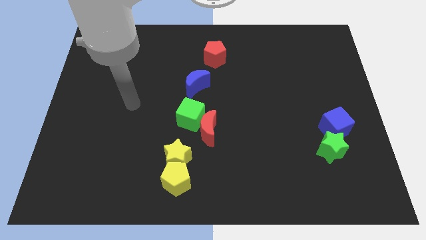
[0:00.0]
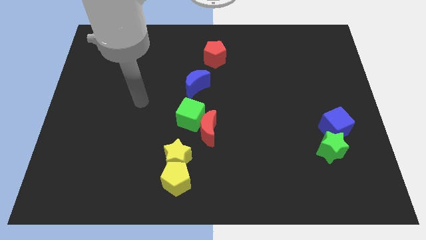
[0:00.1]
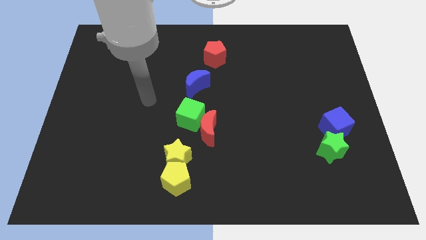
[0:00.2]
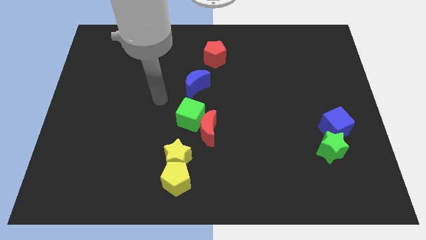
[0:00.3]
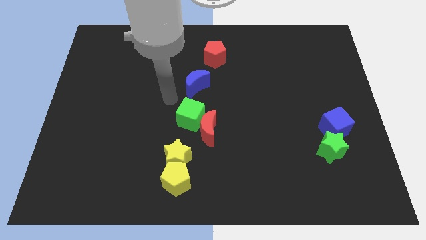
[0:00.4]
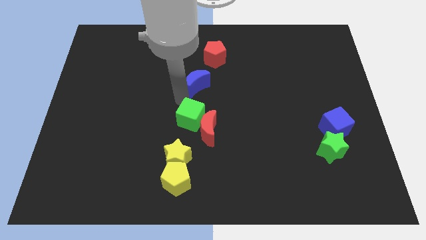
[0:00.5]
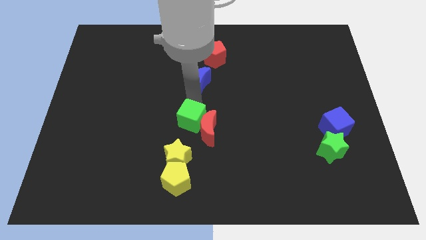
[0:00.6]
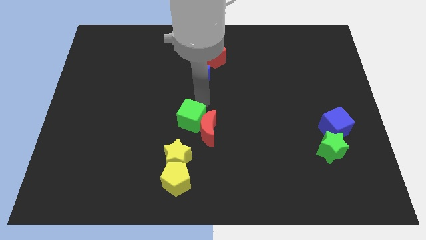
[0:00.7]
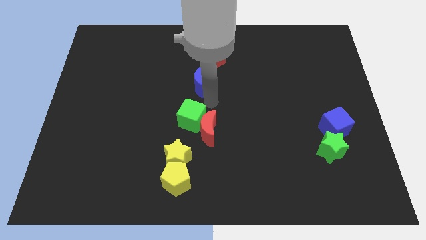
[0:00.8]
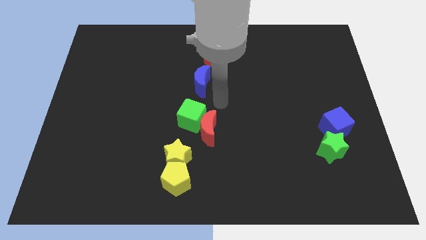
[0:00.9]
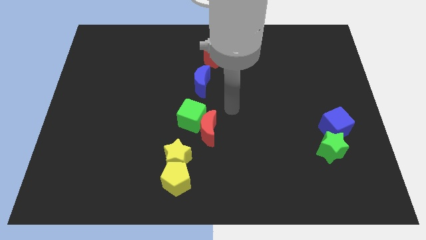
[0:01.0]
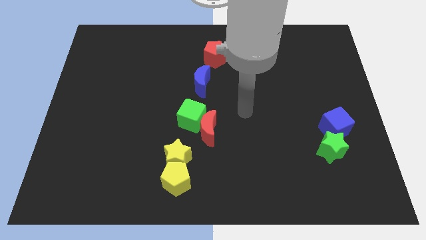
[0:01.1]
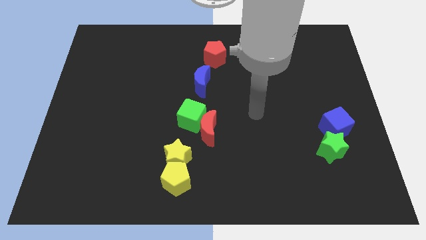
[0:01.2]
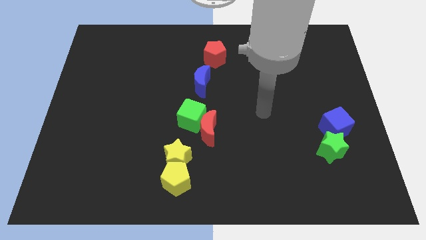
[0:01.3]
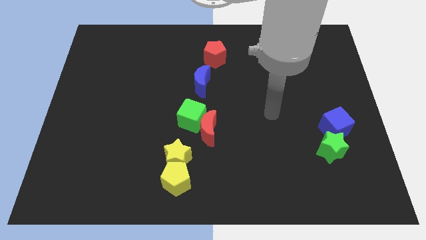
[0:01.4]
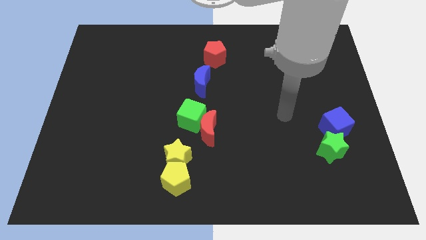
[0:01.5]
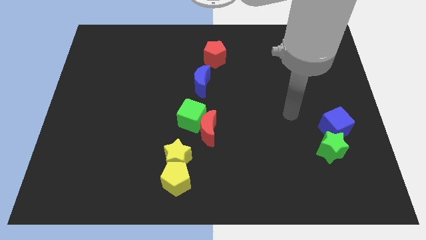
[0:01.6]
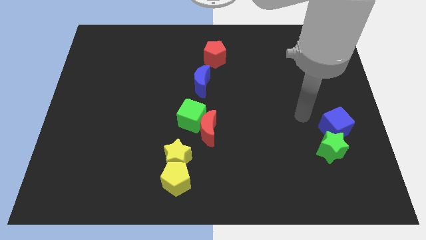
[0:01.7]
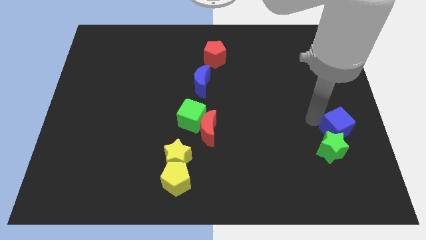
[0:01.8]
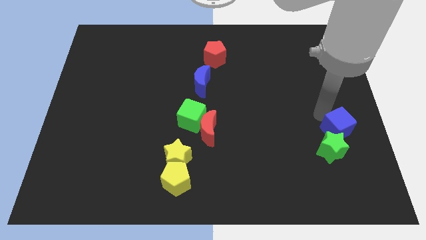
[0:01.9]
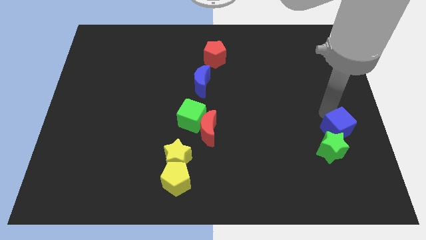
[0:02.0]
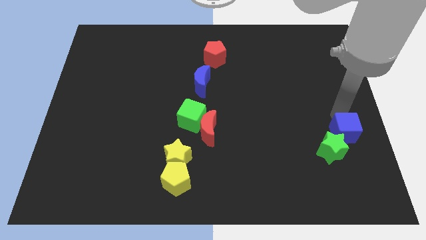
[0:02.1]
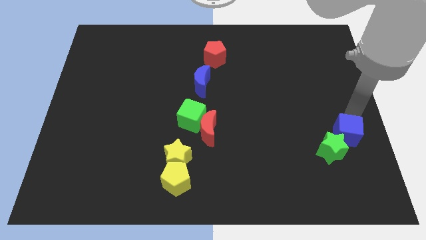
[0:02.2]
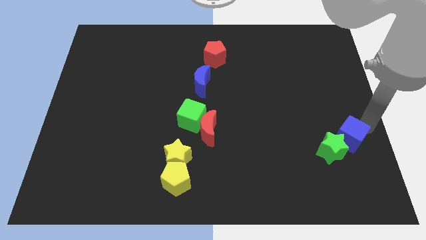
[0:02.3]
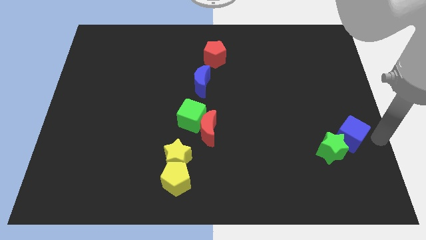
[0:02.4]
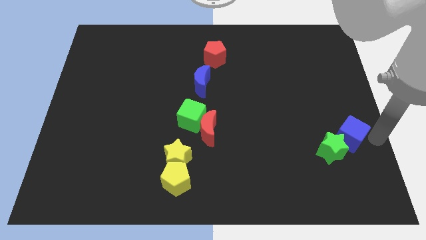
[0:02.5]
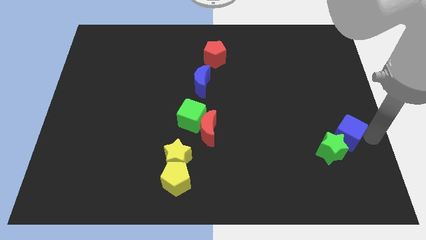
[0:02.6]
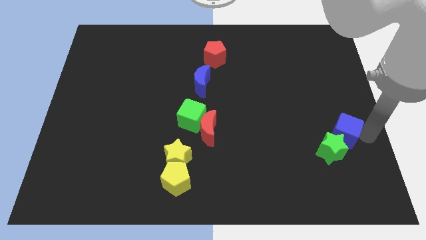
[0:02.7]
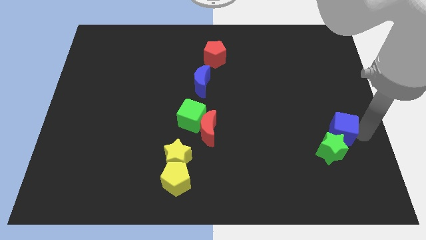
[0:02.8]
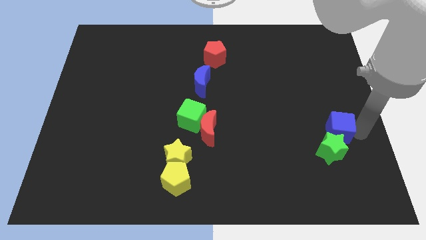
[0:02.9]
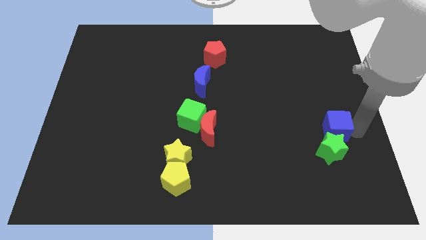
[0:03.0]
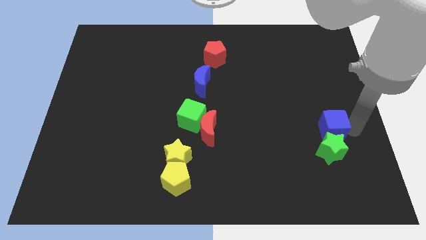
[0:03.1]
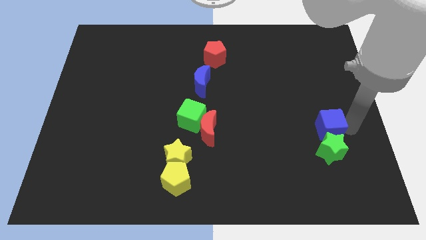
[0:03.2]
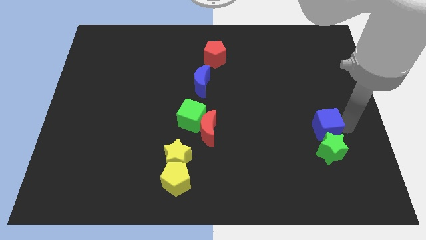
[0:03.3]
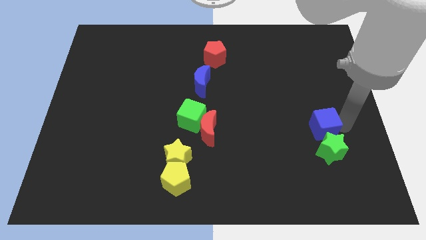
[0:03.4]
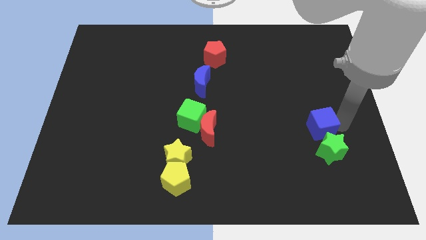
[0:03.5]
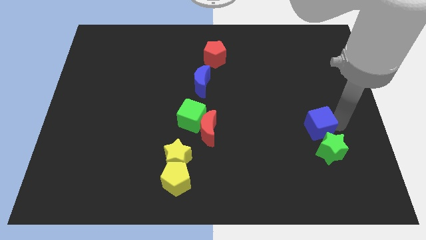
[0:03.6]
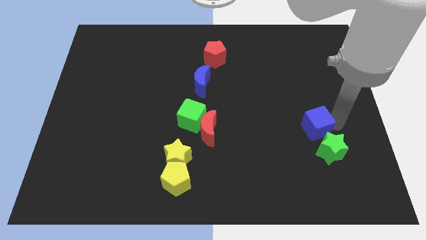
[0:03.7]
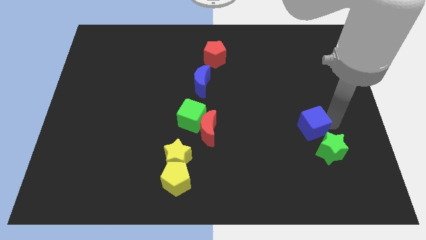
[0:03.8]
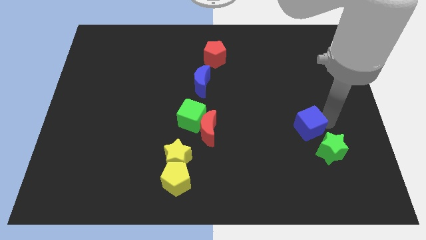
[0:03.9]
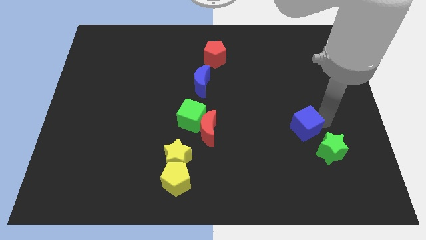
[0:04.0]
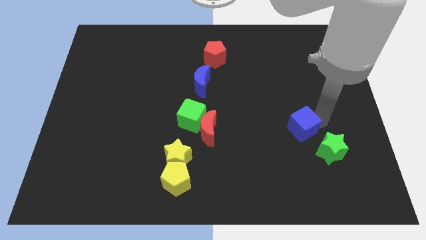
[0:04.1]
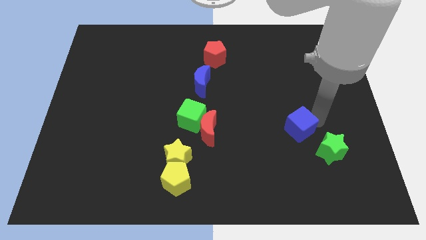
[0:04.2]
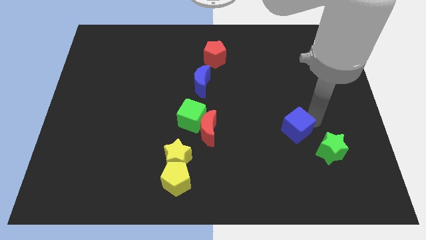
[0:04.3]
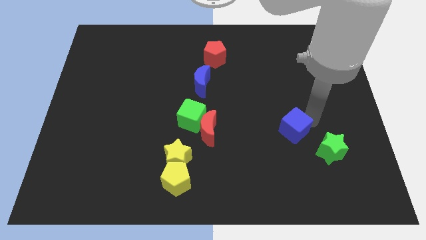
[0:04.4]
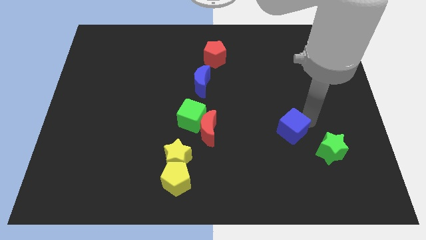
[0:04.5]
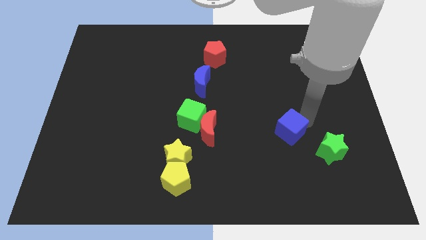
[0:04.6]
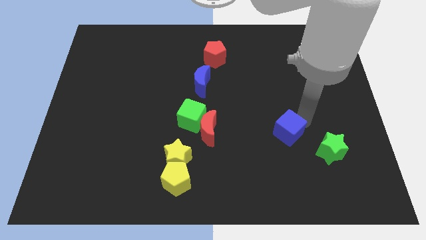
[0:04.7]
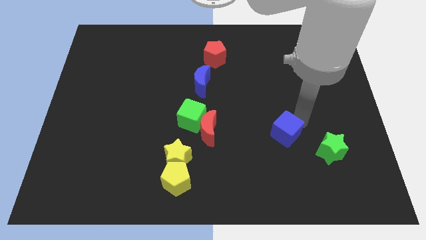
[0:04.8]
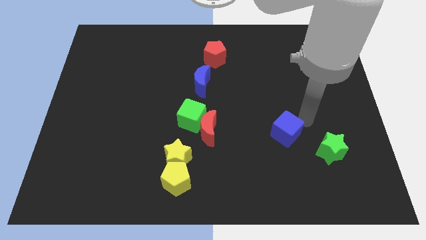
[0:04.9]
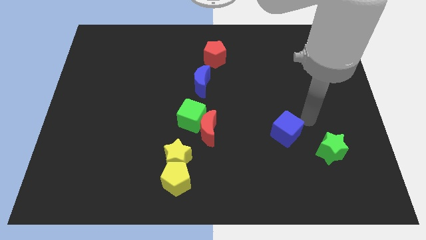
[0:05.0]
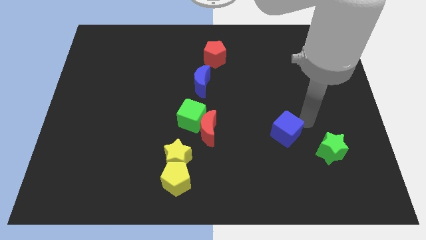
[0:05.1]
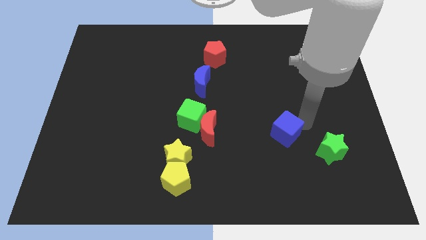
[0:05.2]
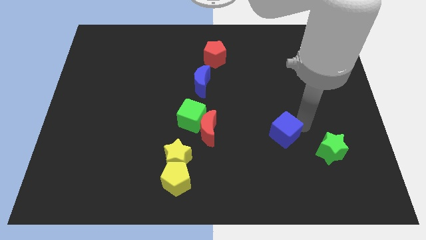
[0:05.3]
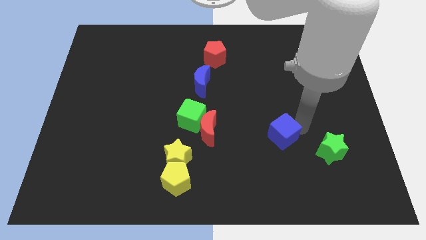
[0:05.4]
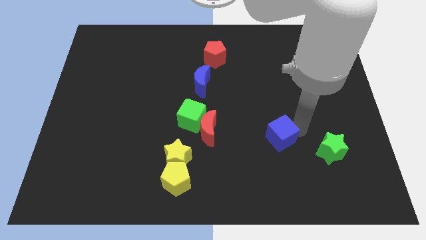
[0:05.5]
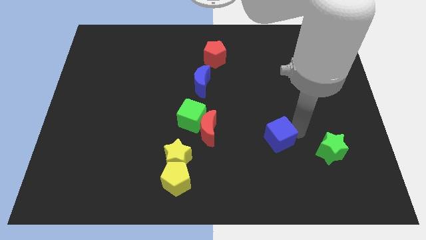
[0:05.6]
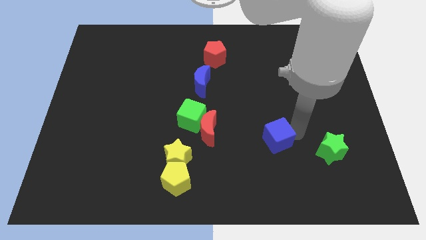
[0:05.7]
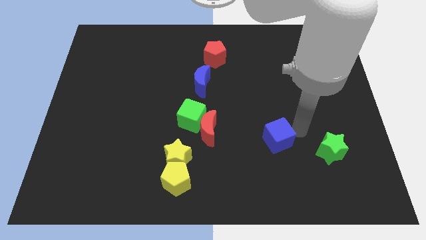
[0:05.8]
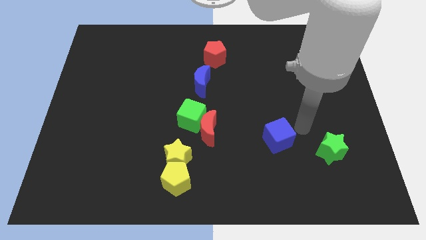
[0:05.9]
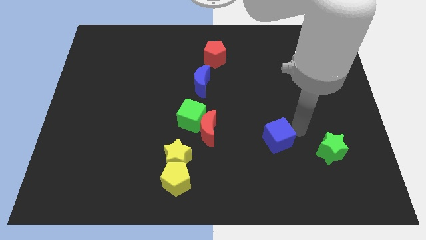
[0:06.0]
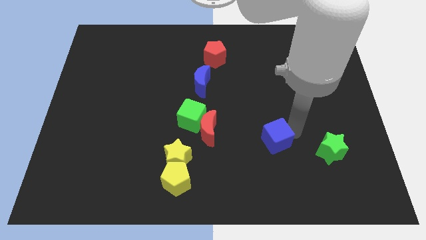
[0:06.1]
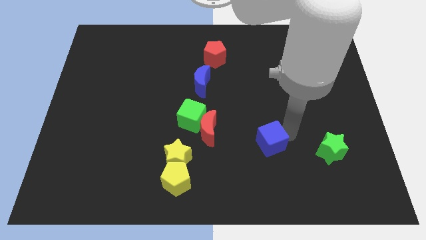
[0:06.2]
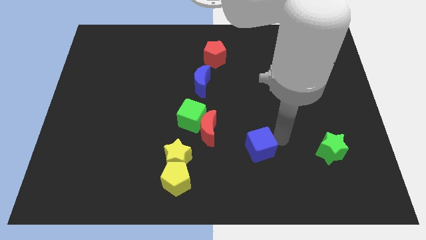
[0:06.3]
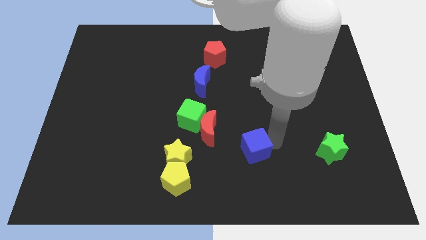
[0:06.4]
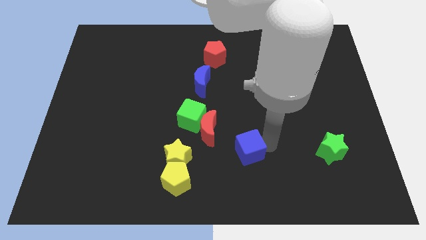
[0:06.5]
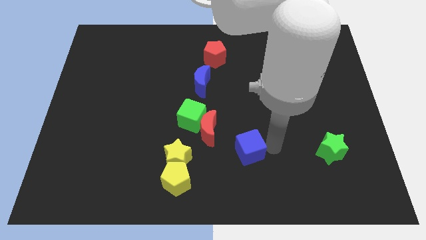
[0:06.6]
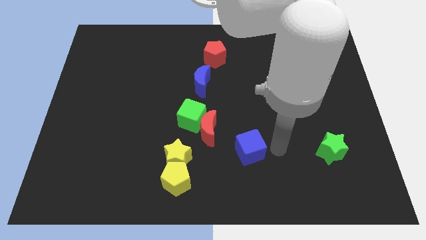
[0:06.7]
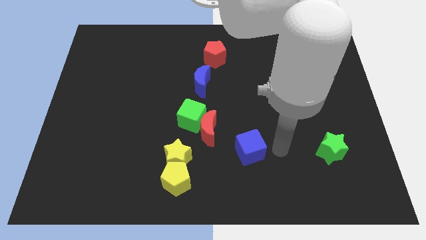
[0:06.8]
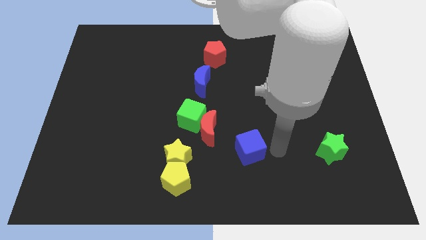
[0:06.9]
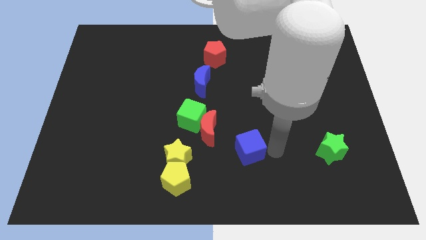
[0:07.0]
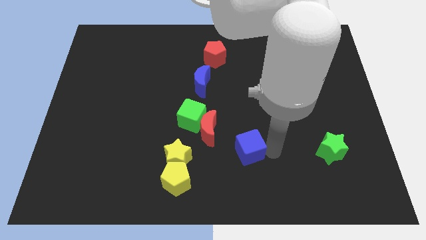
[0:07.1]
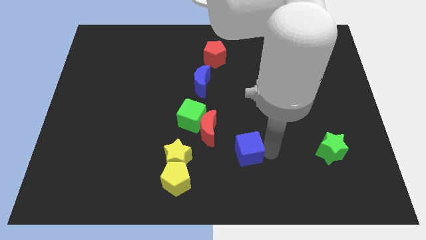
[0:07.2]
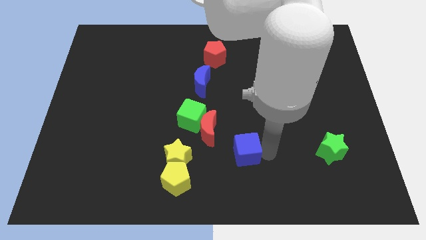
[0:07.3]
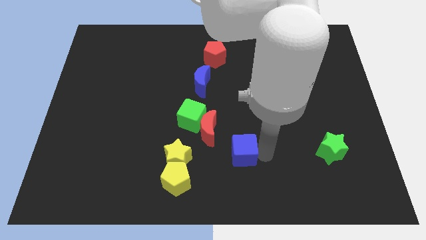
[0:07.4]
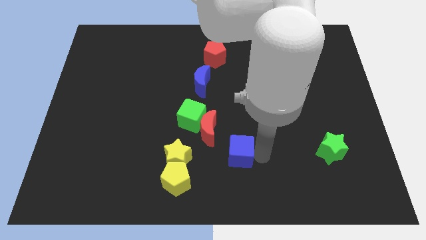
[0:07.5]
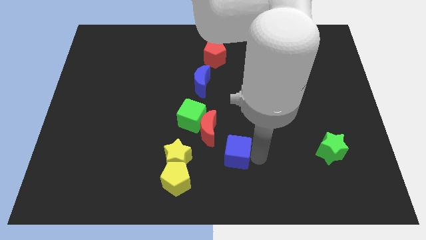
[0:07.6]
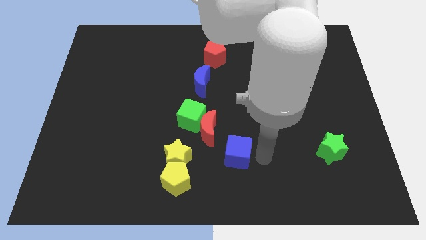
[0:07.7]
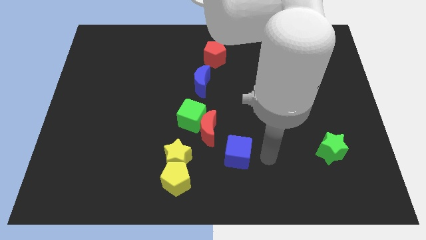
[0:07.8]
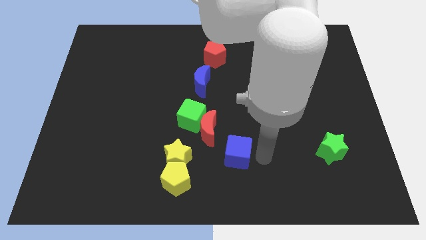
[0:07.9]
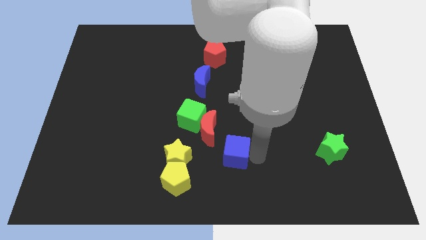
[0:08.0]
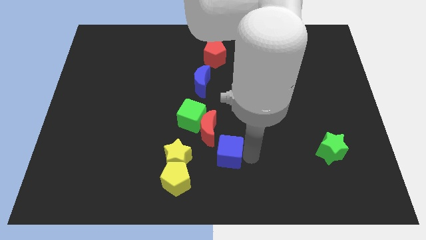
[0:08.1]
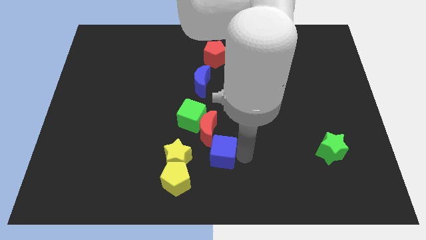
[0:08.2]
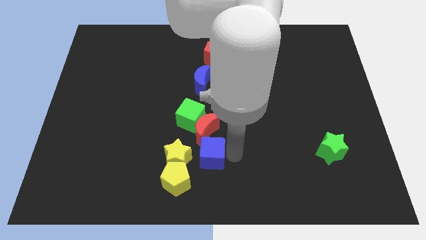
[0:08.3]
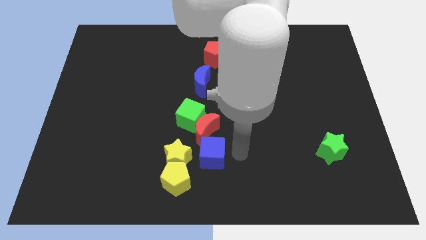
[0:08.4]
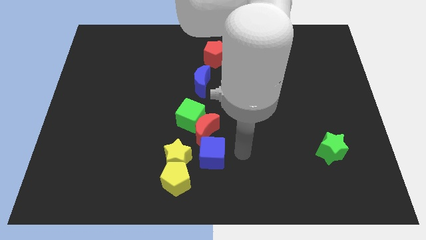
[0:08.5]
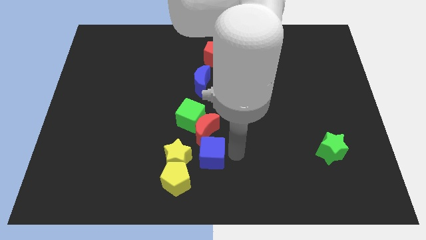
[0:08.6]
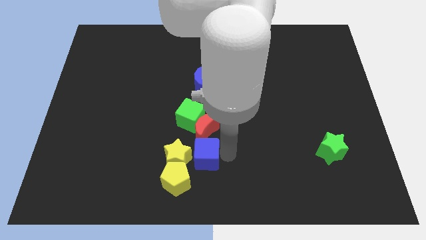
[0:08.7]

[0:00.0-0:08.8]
slide the blue cube next to the yellow star
